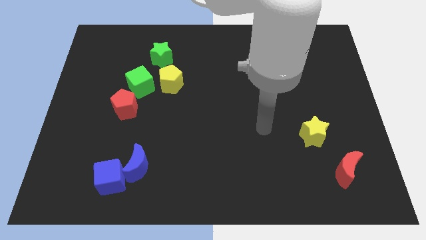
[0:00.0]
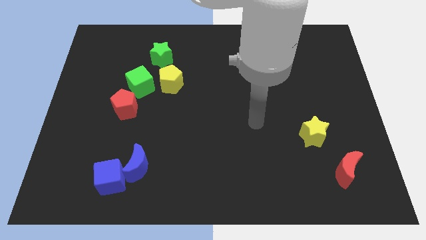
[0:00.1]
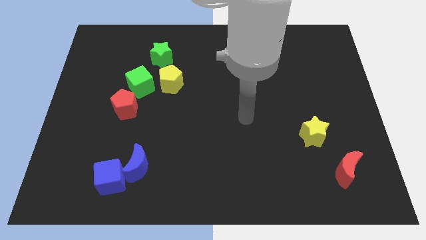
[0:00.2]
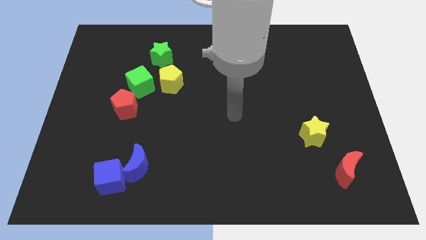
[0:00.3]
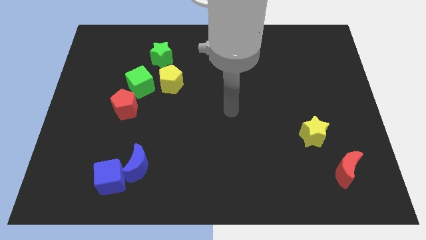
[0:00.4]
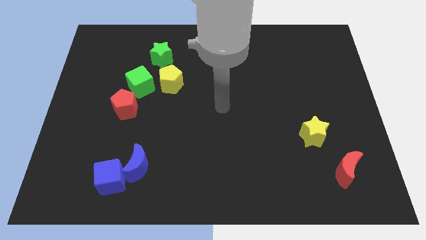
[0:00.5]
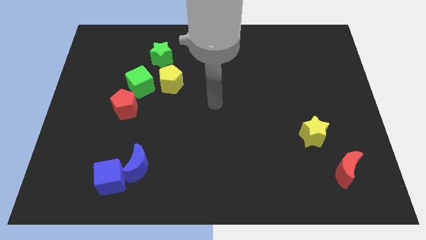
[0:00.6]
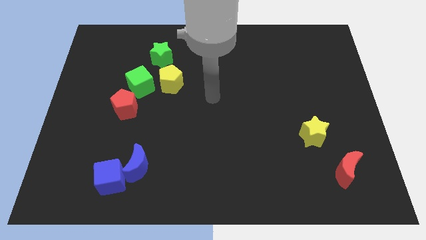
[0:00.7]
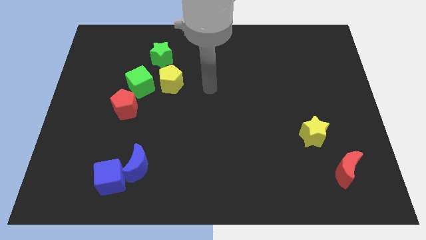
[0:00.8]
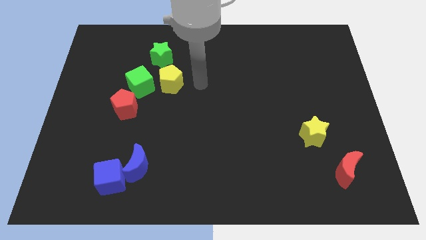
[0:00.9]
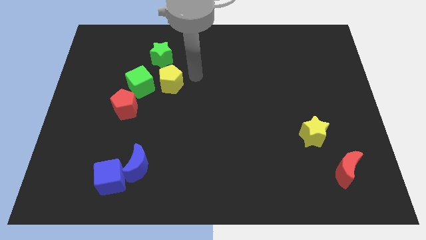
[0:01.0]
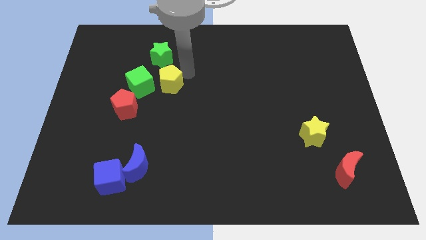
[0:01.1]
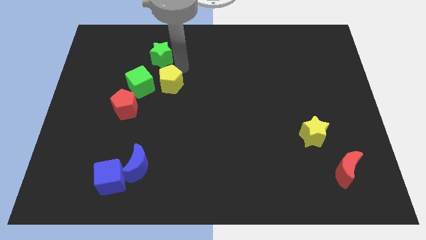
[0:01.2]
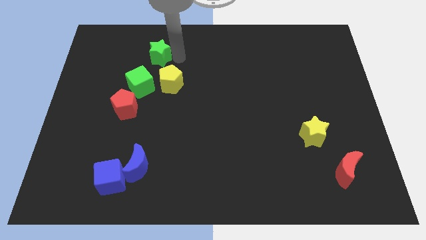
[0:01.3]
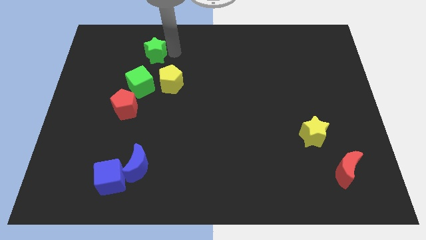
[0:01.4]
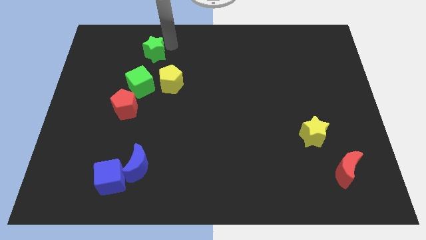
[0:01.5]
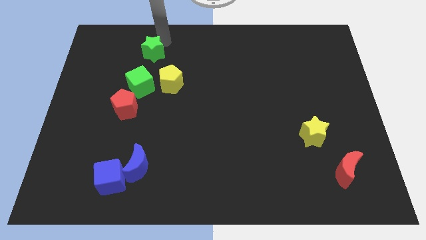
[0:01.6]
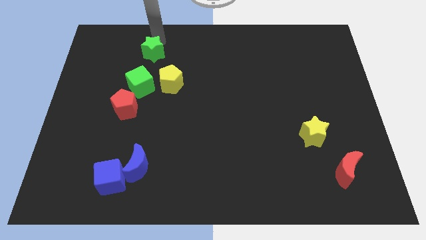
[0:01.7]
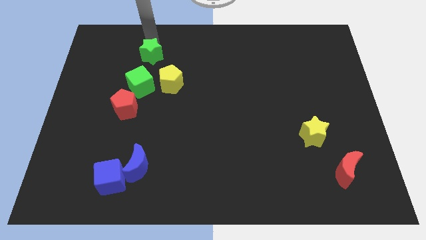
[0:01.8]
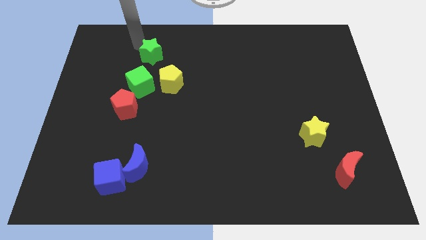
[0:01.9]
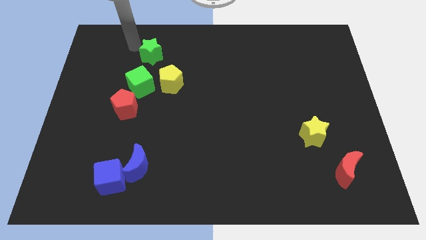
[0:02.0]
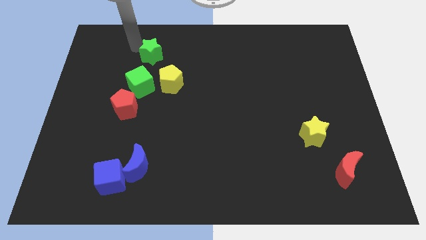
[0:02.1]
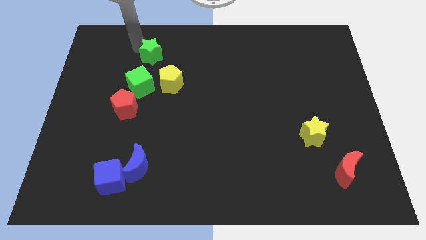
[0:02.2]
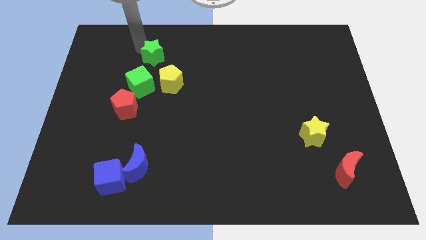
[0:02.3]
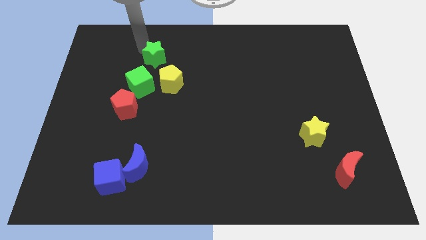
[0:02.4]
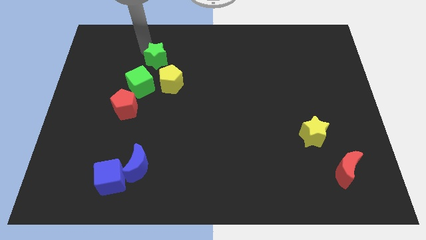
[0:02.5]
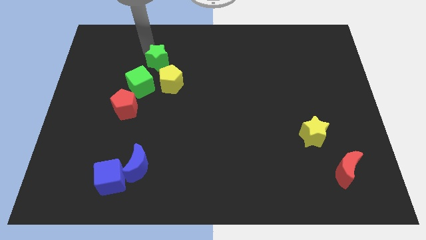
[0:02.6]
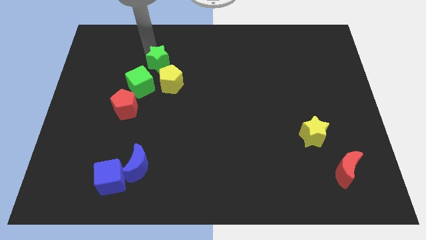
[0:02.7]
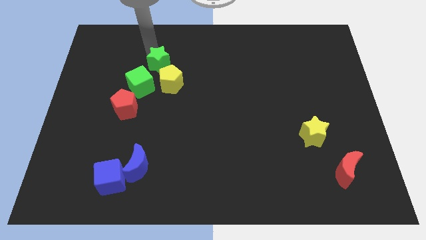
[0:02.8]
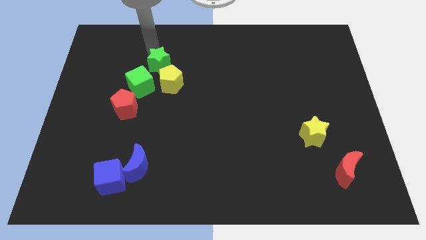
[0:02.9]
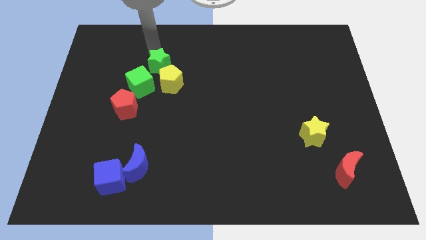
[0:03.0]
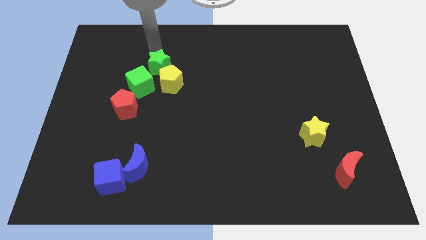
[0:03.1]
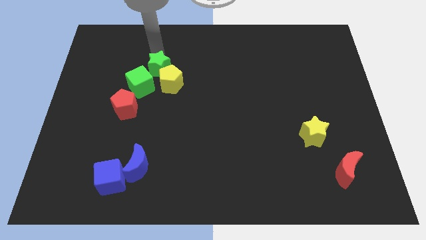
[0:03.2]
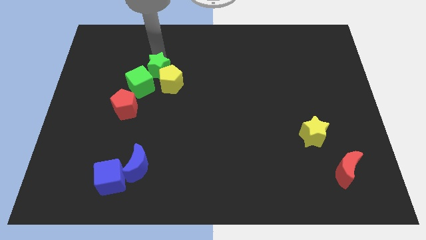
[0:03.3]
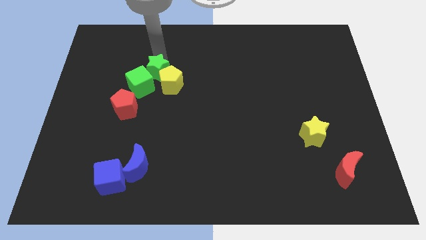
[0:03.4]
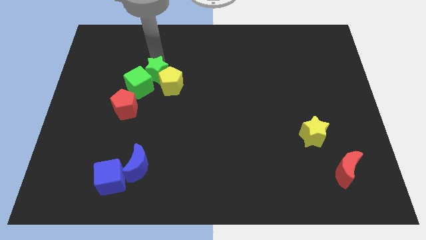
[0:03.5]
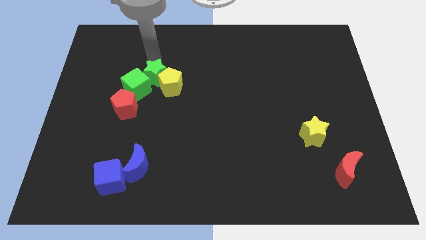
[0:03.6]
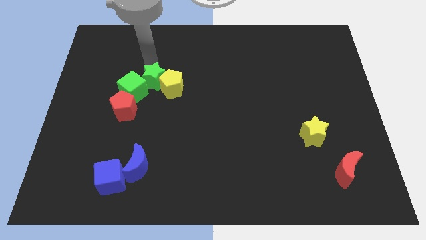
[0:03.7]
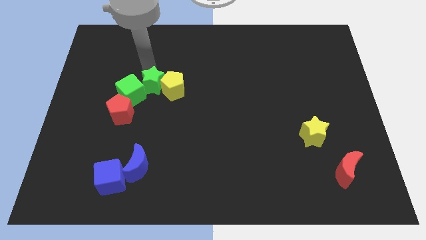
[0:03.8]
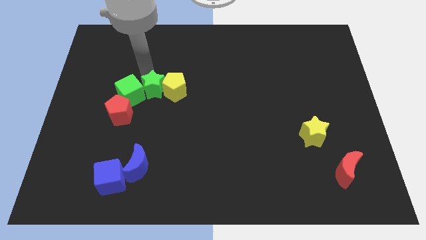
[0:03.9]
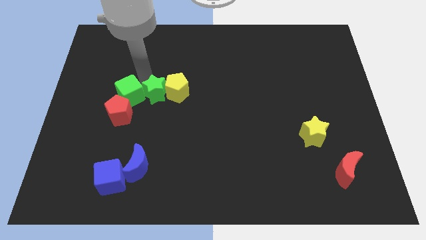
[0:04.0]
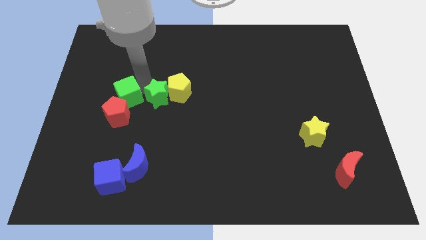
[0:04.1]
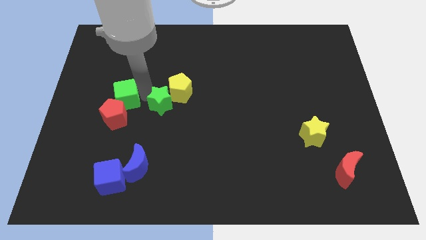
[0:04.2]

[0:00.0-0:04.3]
move the green star somewhat down and right

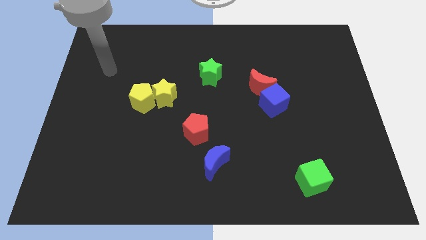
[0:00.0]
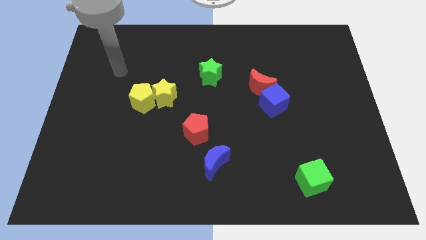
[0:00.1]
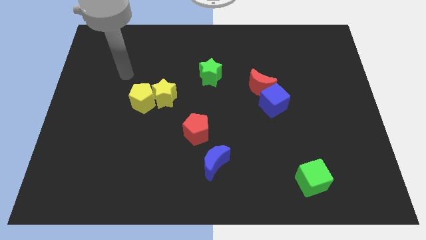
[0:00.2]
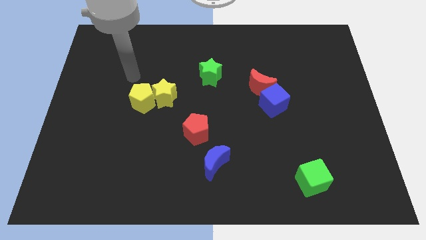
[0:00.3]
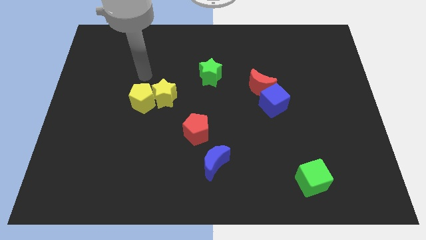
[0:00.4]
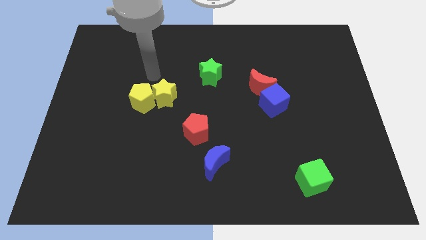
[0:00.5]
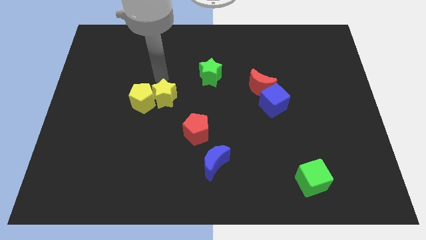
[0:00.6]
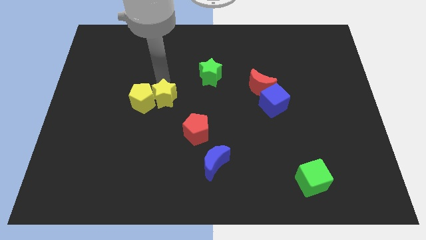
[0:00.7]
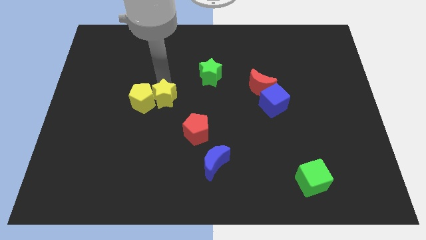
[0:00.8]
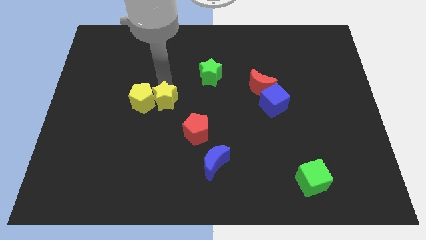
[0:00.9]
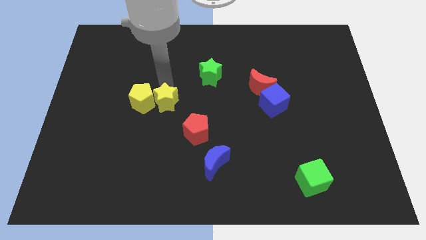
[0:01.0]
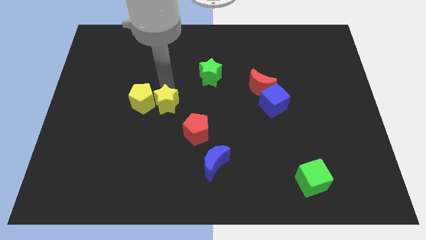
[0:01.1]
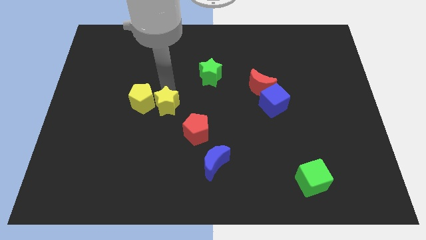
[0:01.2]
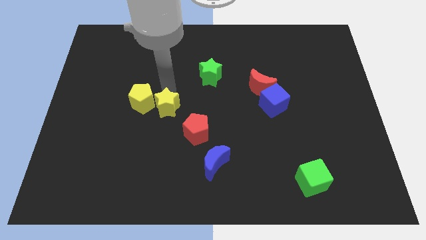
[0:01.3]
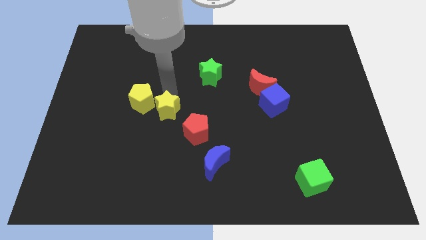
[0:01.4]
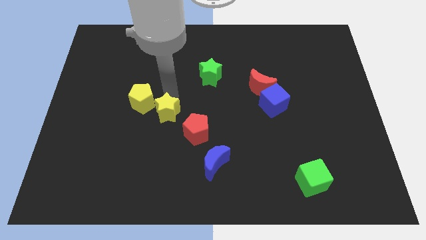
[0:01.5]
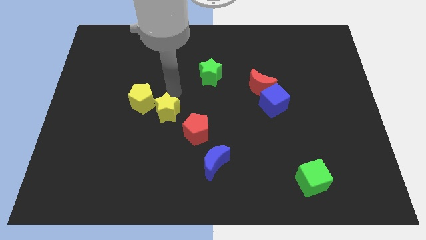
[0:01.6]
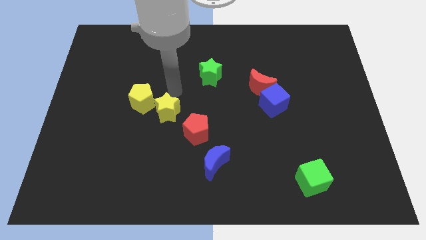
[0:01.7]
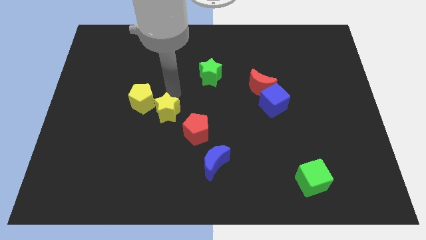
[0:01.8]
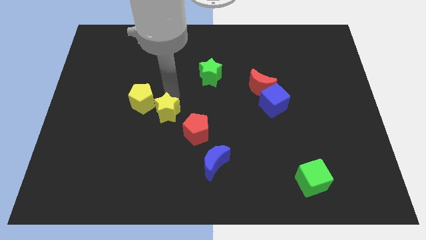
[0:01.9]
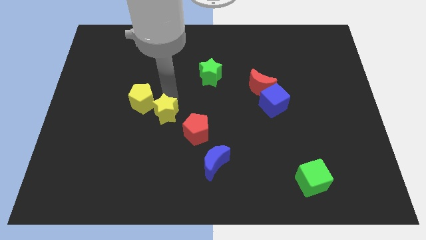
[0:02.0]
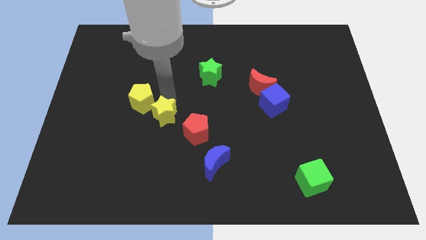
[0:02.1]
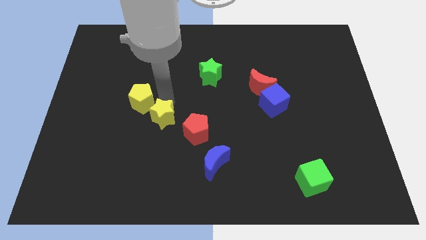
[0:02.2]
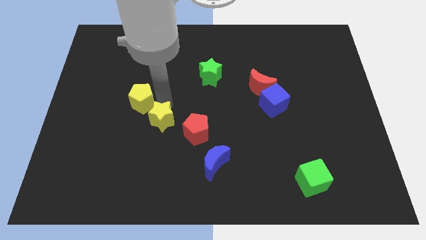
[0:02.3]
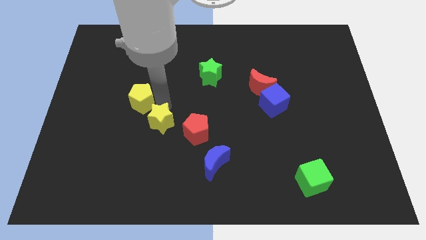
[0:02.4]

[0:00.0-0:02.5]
push the yellow star down a little bit

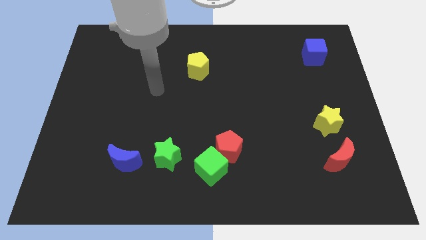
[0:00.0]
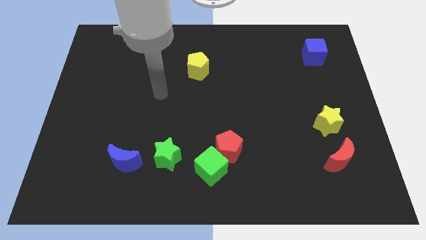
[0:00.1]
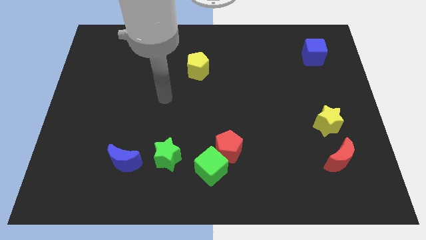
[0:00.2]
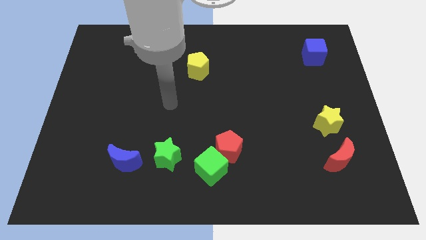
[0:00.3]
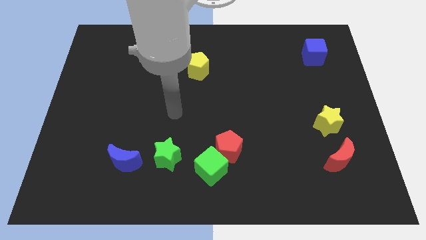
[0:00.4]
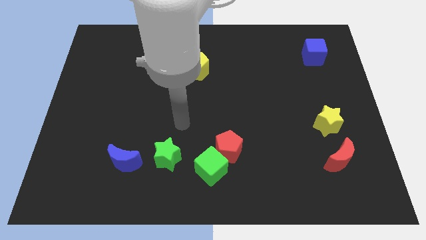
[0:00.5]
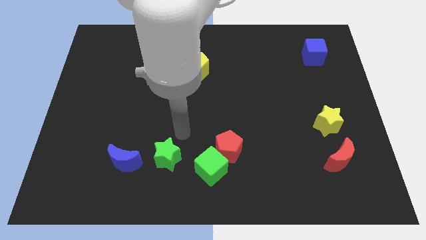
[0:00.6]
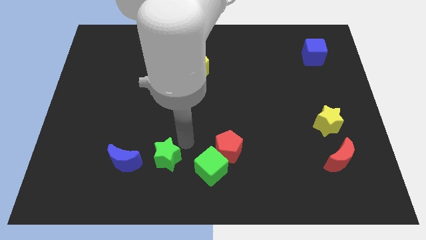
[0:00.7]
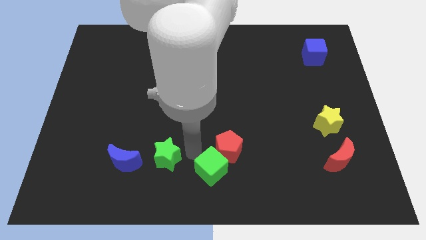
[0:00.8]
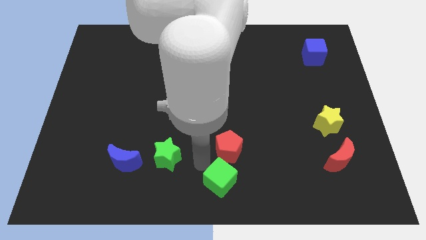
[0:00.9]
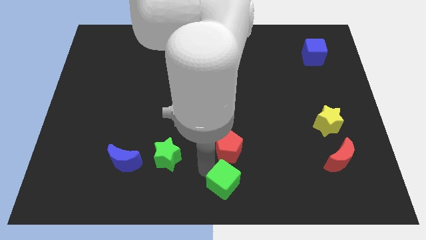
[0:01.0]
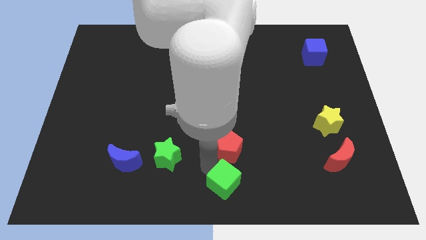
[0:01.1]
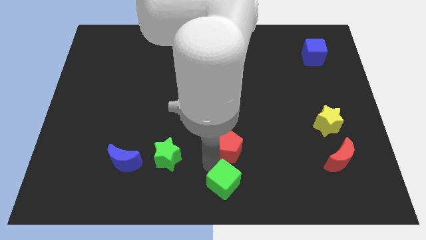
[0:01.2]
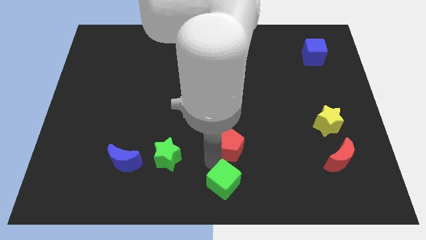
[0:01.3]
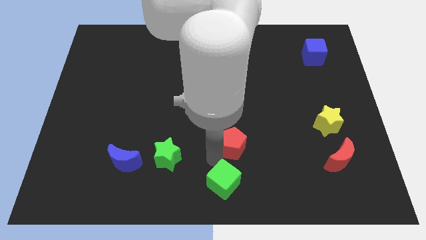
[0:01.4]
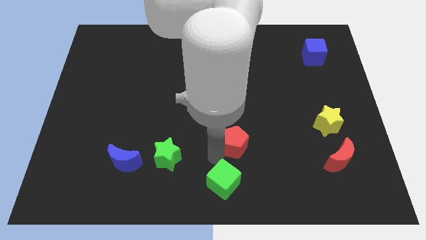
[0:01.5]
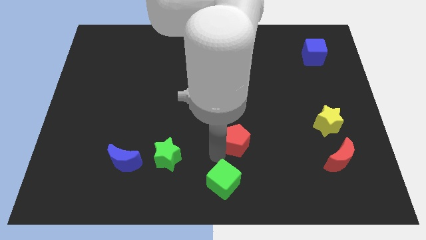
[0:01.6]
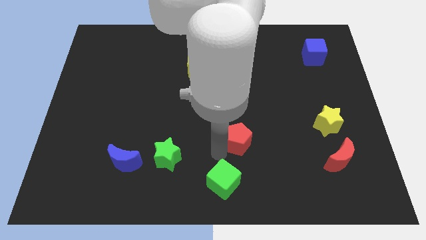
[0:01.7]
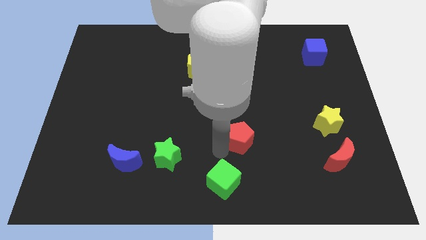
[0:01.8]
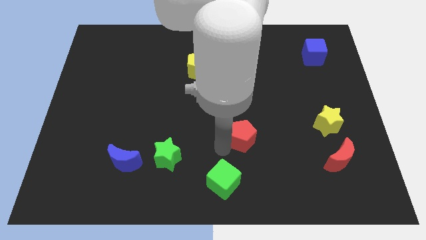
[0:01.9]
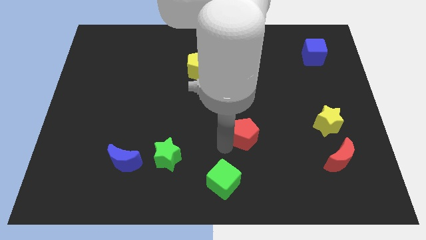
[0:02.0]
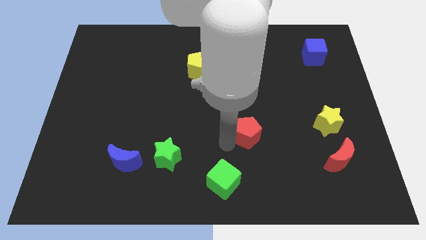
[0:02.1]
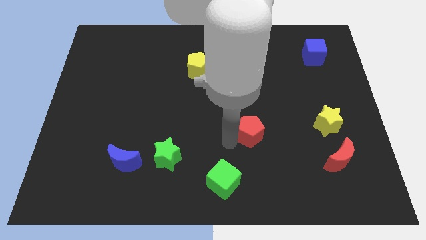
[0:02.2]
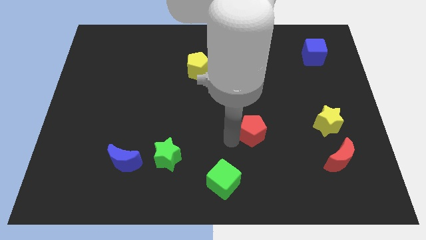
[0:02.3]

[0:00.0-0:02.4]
slightly push the red pentagon diagonally up and right
